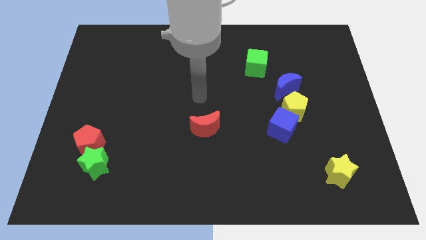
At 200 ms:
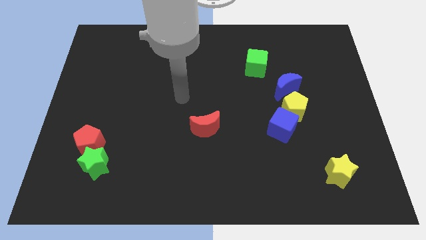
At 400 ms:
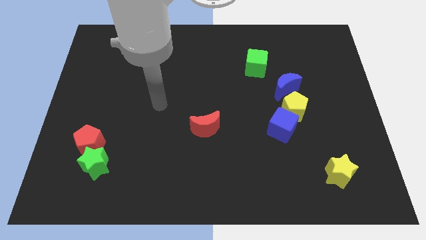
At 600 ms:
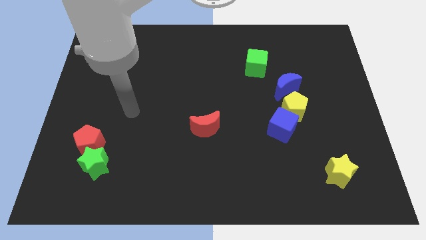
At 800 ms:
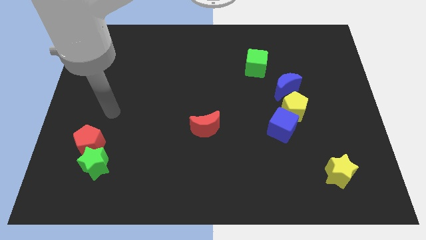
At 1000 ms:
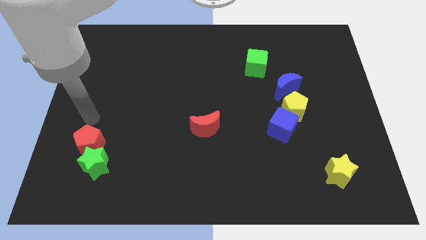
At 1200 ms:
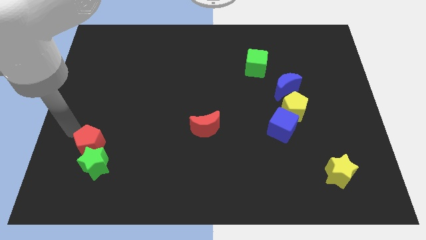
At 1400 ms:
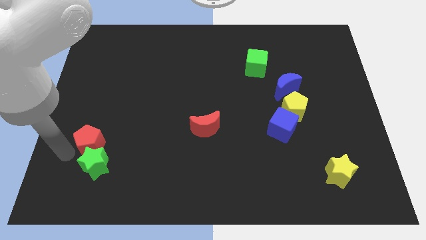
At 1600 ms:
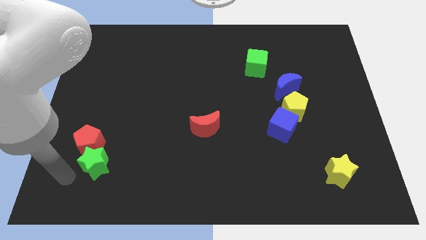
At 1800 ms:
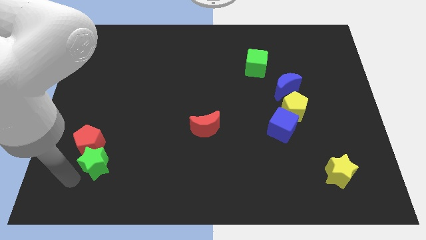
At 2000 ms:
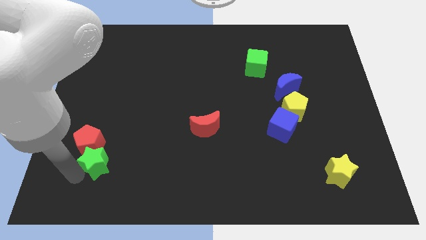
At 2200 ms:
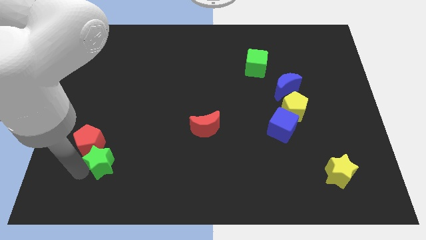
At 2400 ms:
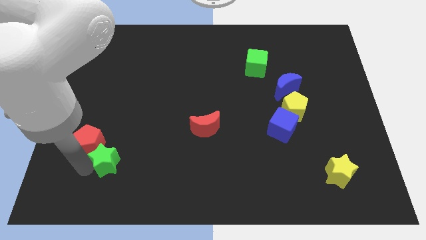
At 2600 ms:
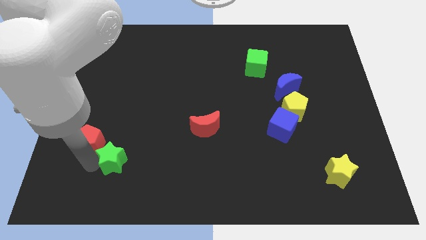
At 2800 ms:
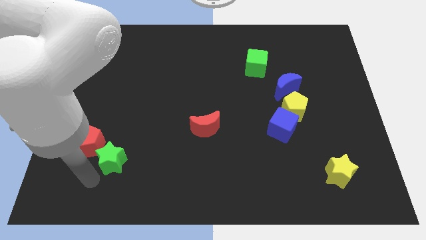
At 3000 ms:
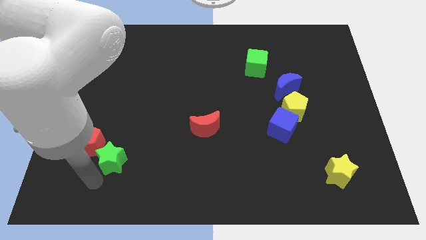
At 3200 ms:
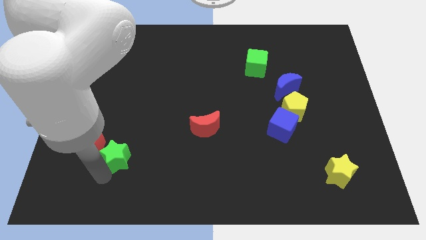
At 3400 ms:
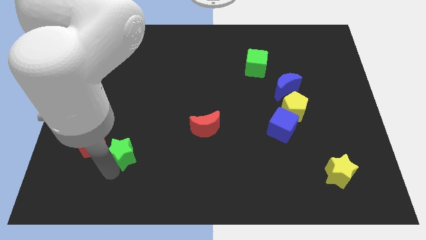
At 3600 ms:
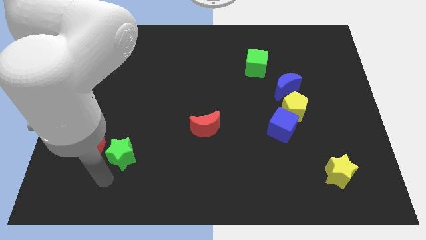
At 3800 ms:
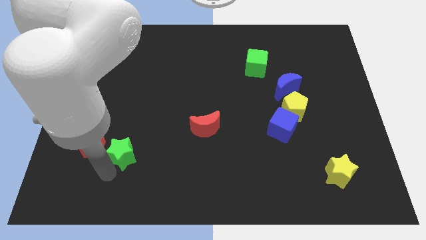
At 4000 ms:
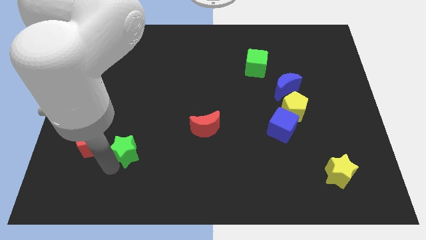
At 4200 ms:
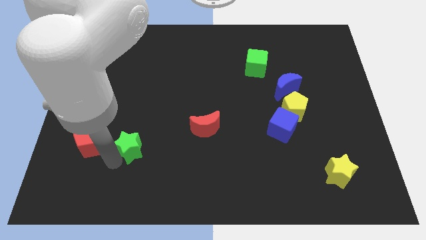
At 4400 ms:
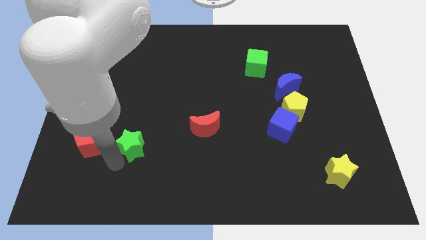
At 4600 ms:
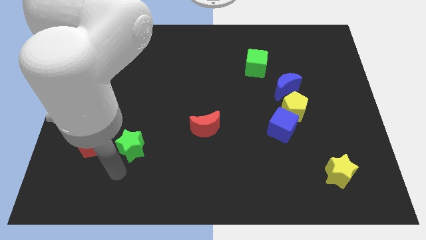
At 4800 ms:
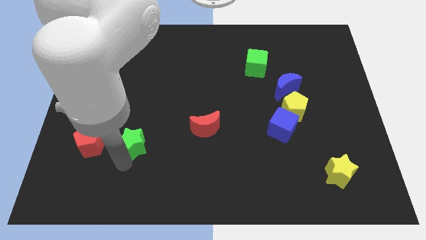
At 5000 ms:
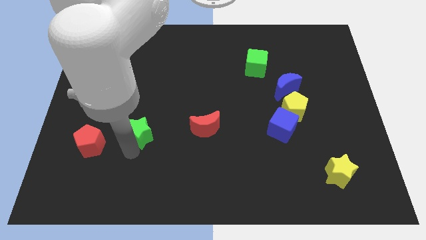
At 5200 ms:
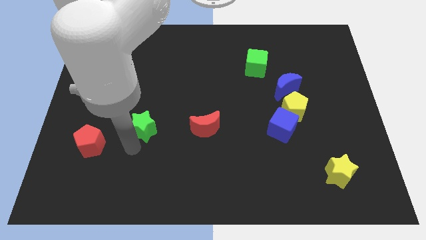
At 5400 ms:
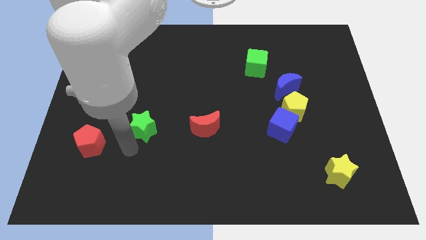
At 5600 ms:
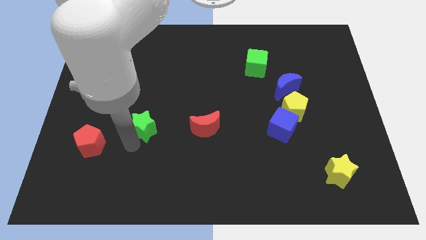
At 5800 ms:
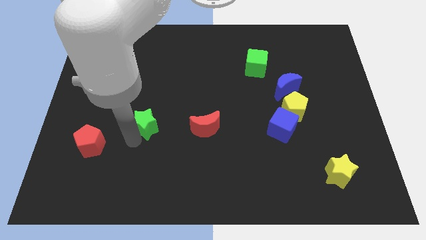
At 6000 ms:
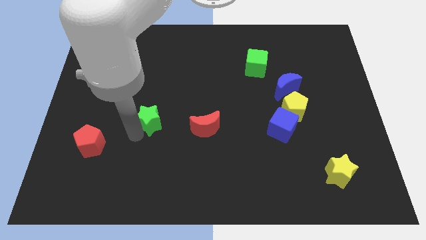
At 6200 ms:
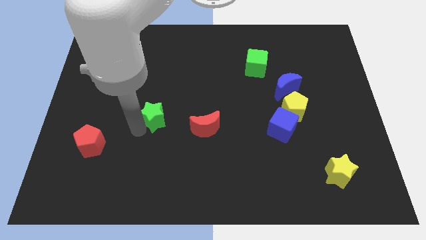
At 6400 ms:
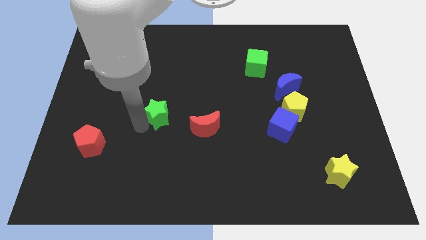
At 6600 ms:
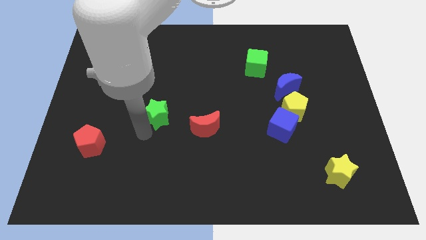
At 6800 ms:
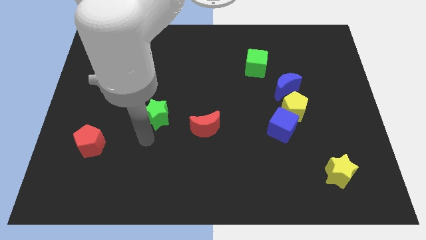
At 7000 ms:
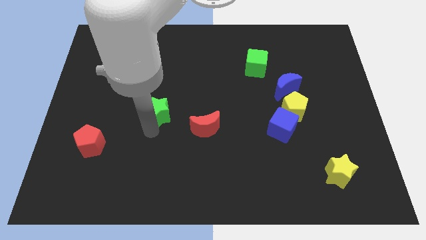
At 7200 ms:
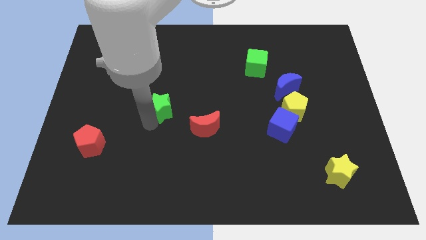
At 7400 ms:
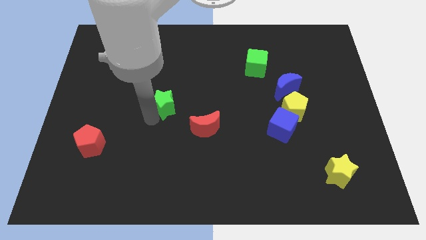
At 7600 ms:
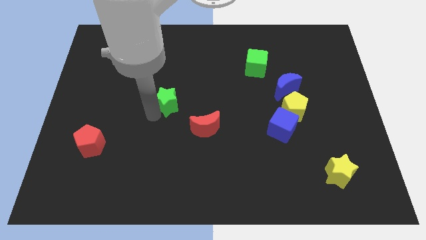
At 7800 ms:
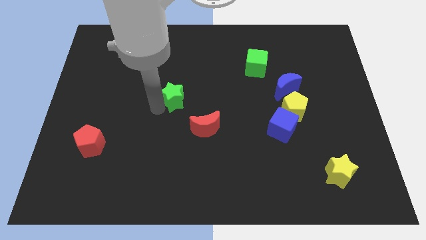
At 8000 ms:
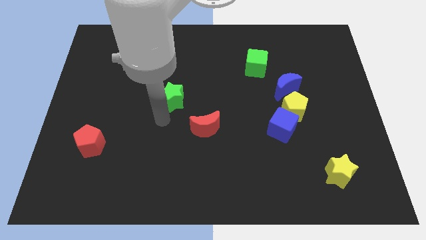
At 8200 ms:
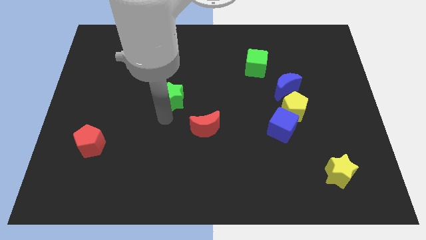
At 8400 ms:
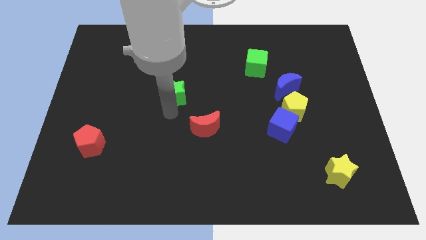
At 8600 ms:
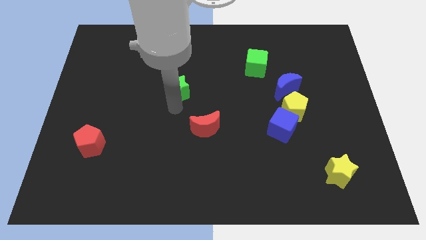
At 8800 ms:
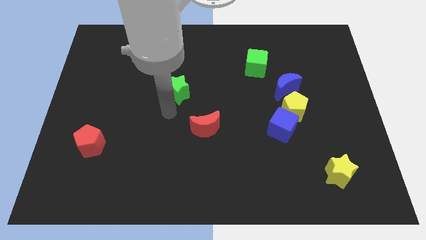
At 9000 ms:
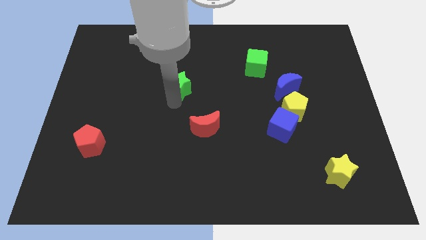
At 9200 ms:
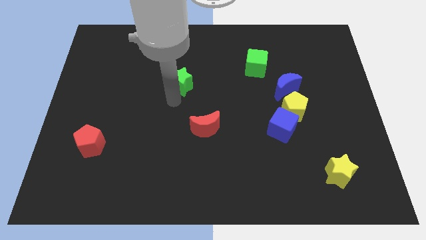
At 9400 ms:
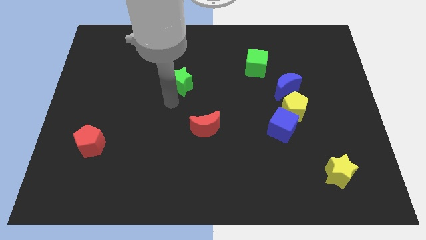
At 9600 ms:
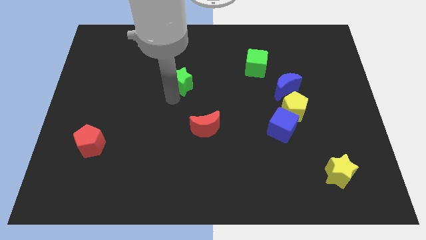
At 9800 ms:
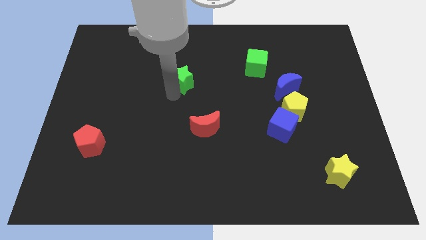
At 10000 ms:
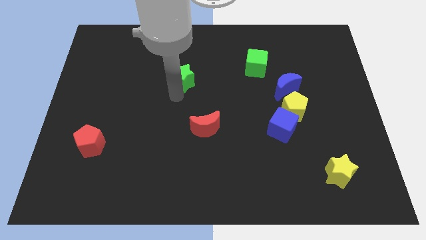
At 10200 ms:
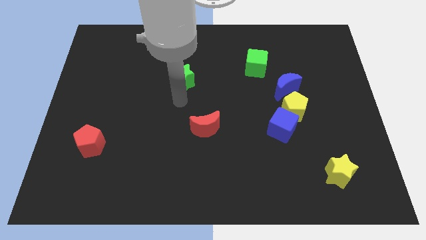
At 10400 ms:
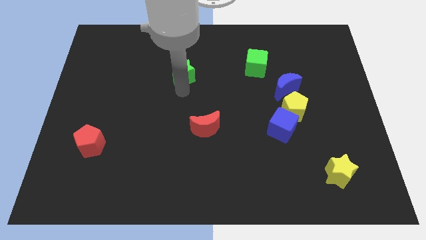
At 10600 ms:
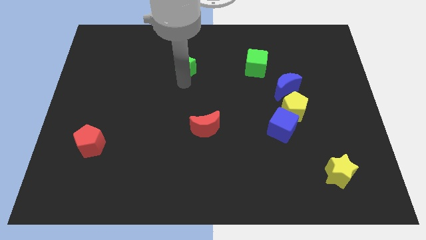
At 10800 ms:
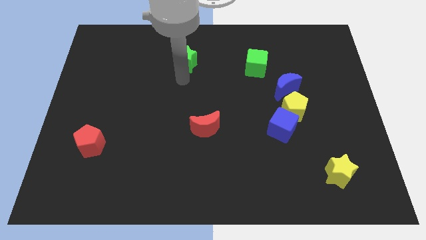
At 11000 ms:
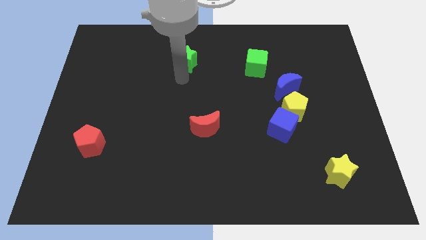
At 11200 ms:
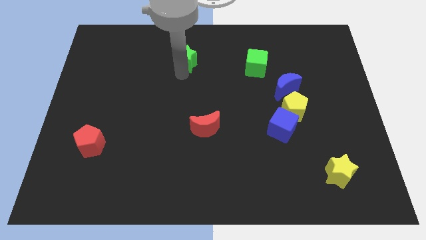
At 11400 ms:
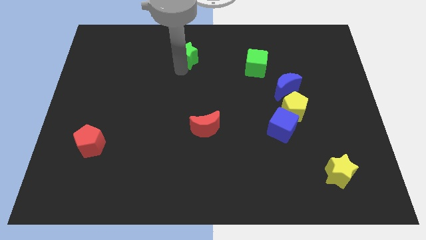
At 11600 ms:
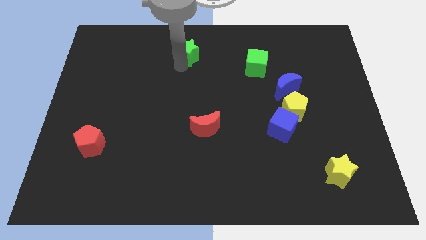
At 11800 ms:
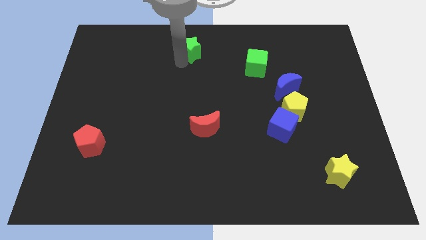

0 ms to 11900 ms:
push the green star to the towards your base

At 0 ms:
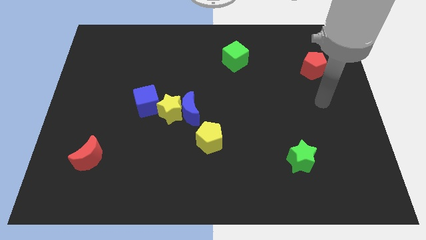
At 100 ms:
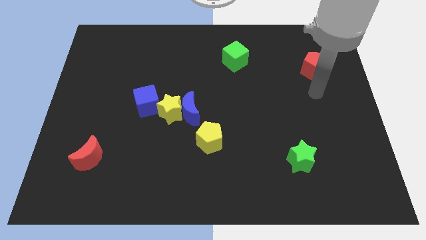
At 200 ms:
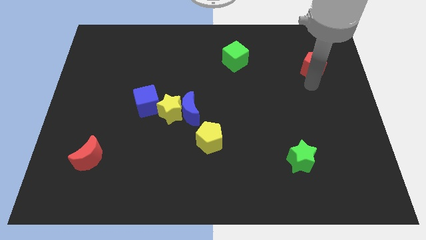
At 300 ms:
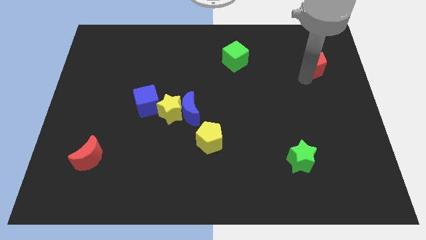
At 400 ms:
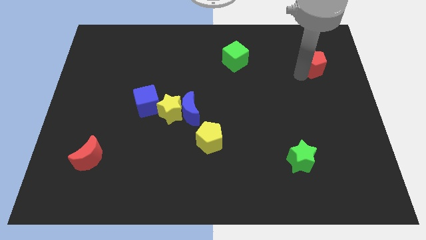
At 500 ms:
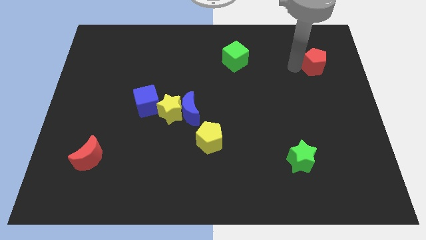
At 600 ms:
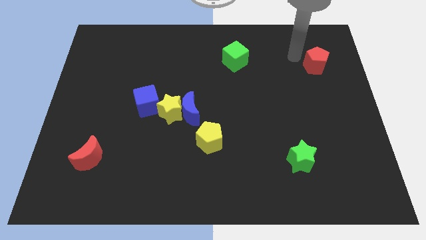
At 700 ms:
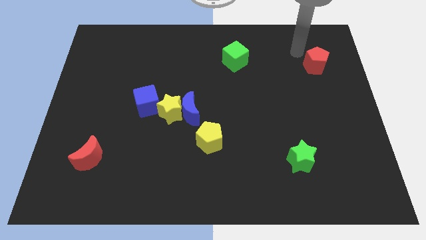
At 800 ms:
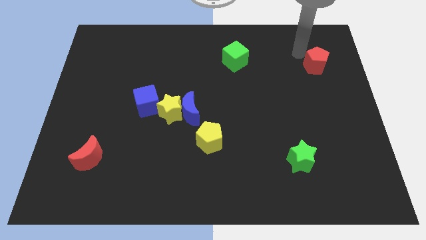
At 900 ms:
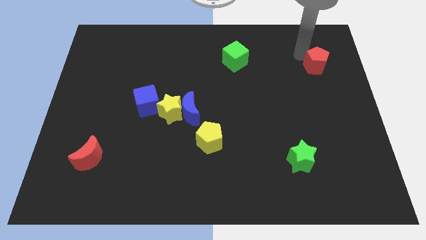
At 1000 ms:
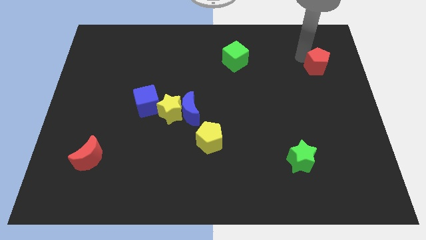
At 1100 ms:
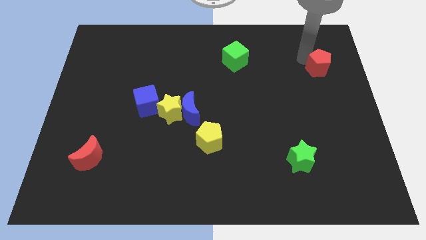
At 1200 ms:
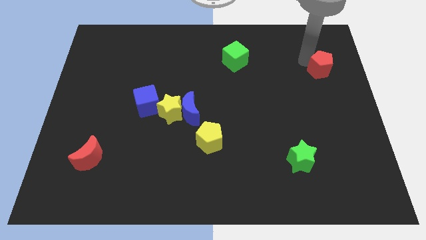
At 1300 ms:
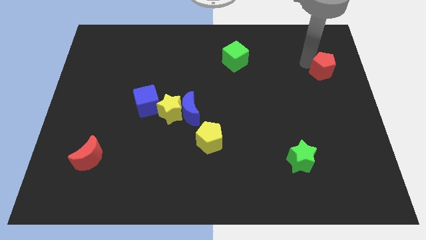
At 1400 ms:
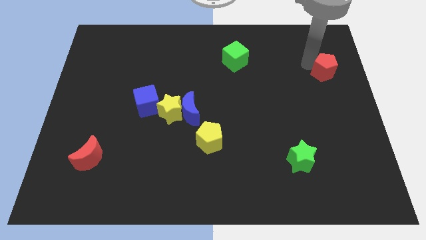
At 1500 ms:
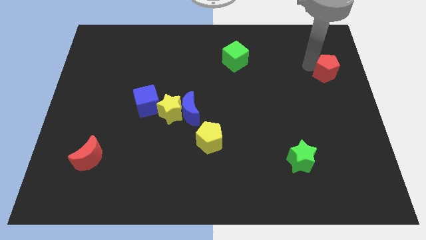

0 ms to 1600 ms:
push the red pentagon to the right side

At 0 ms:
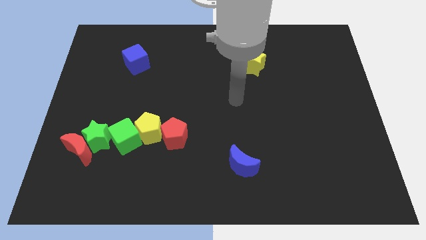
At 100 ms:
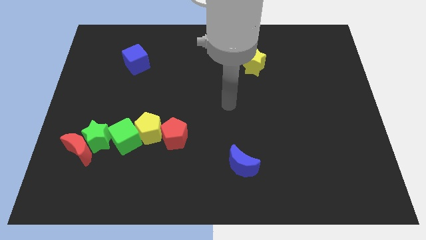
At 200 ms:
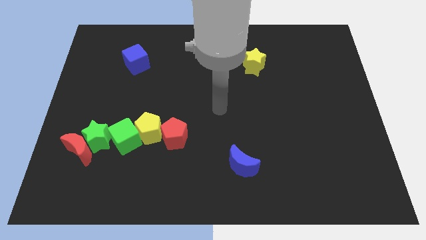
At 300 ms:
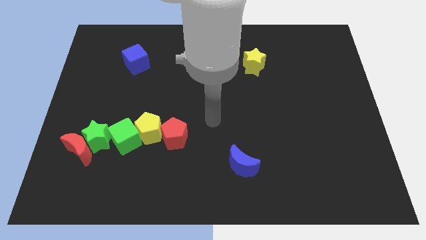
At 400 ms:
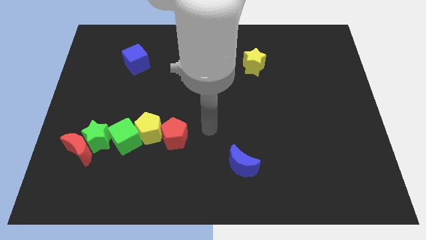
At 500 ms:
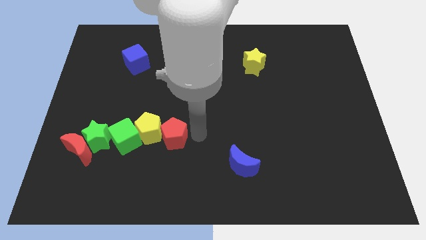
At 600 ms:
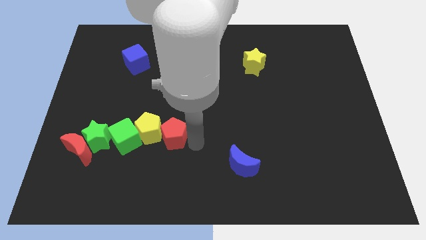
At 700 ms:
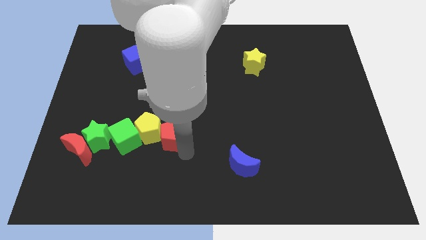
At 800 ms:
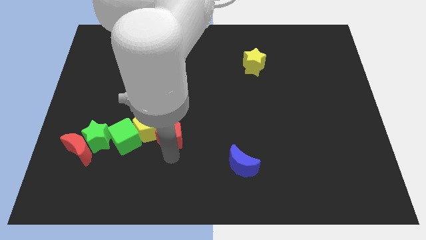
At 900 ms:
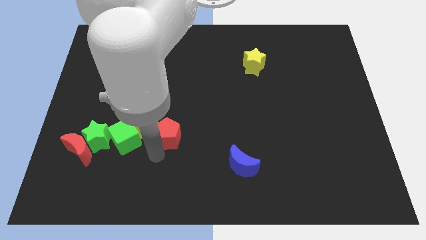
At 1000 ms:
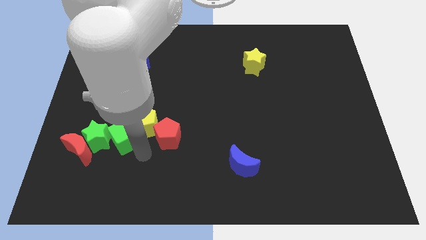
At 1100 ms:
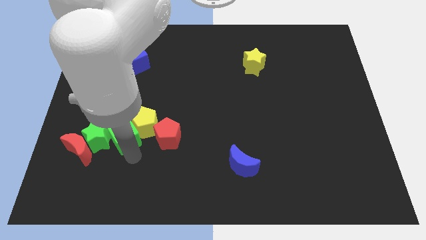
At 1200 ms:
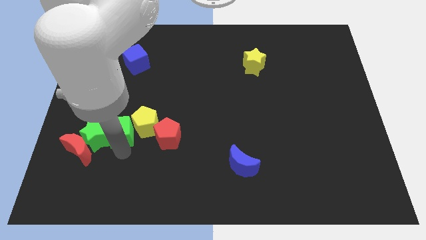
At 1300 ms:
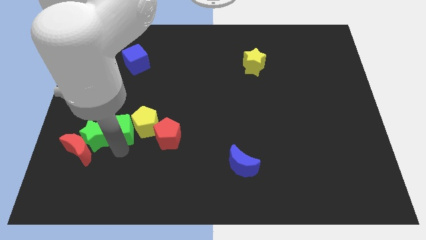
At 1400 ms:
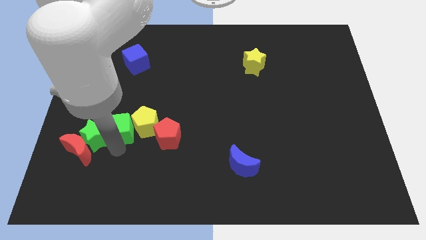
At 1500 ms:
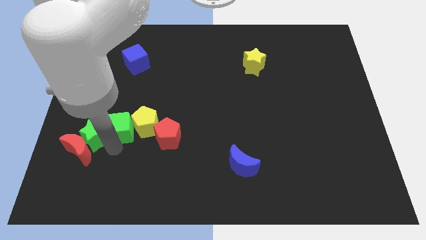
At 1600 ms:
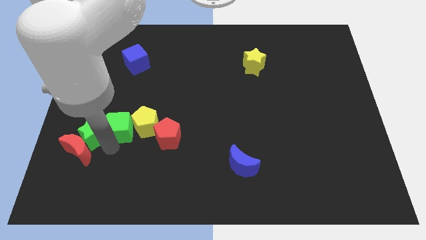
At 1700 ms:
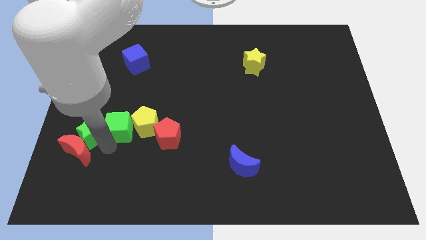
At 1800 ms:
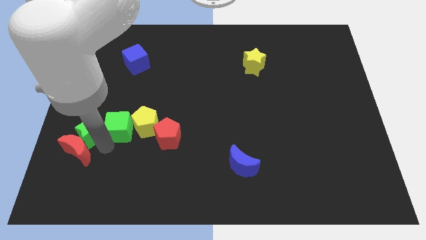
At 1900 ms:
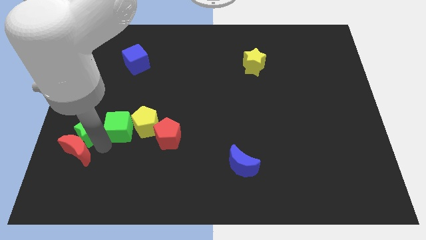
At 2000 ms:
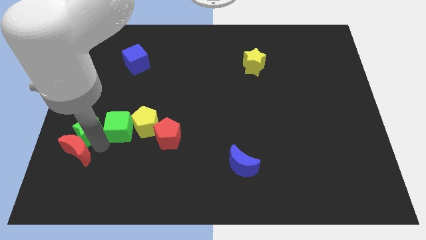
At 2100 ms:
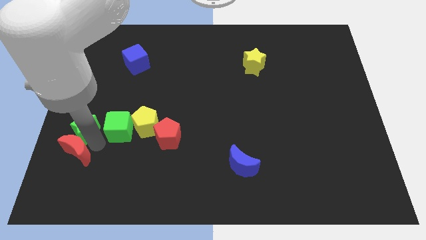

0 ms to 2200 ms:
push the green star to the left side of the board
